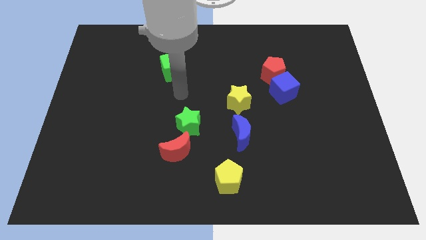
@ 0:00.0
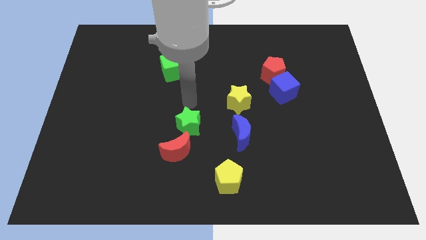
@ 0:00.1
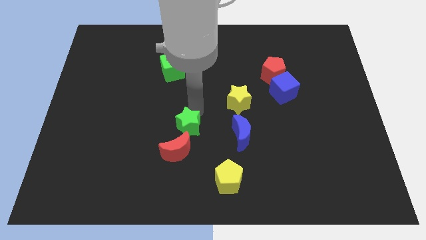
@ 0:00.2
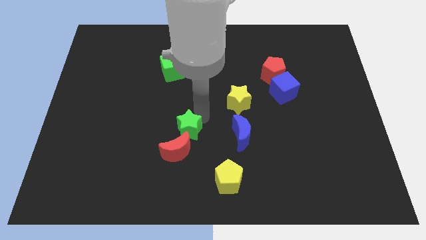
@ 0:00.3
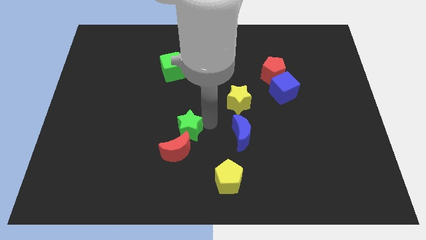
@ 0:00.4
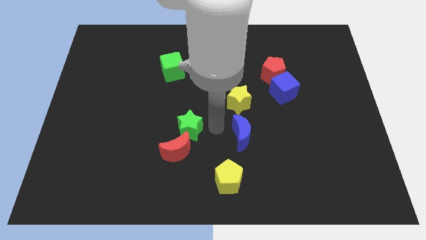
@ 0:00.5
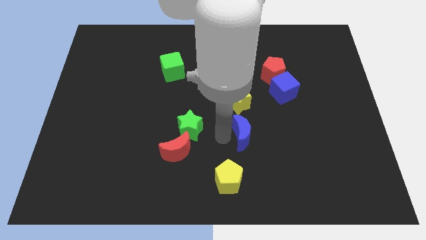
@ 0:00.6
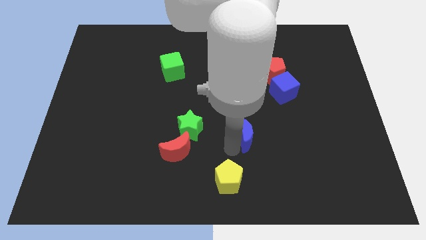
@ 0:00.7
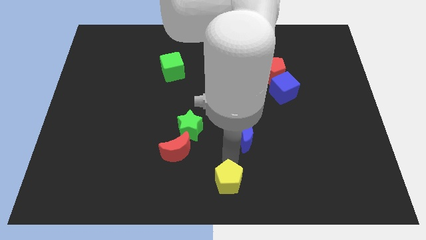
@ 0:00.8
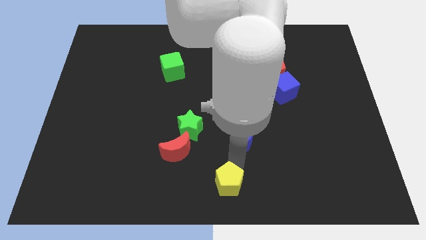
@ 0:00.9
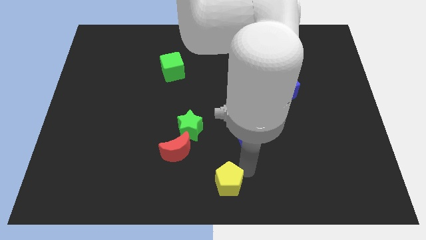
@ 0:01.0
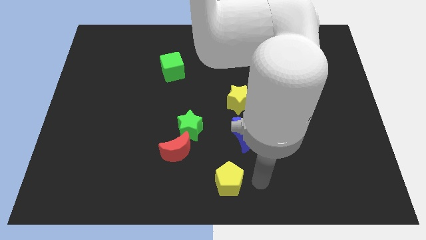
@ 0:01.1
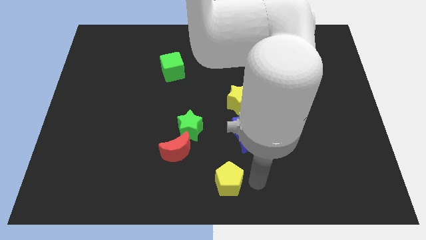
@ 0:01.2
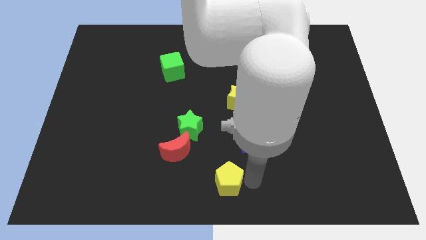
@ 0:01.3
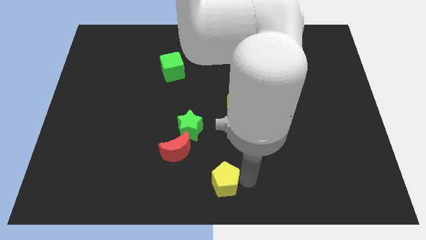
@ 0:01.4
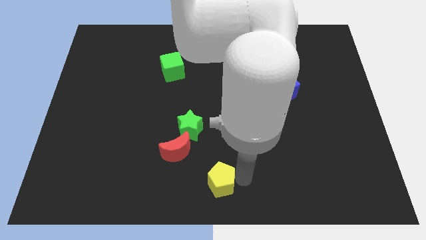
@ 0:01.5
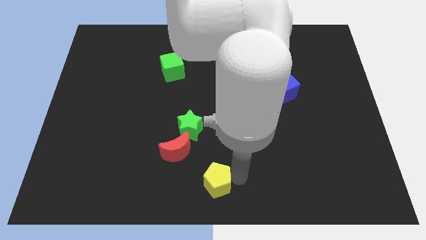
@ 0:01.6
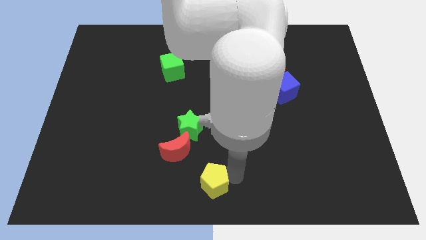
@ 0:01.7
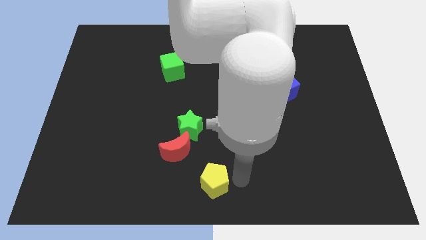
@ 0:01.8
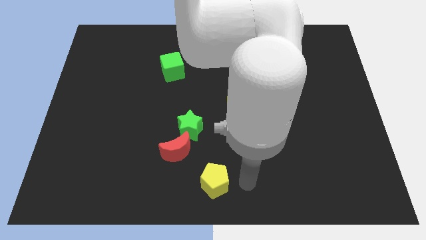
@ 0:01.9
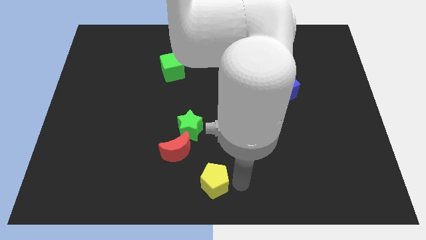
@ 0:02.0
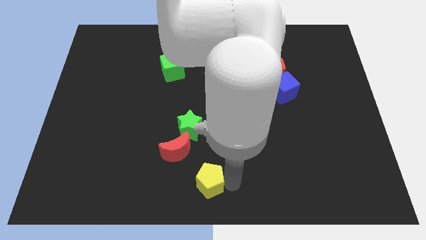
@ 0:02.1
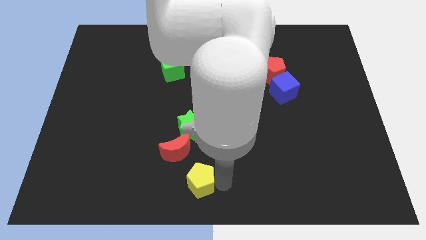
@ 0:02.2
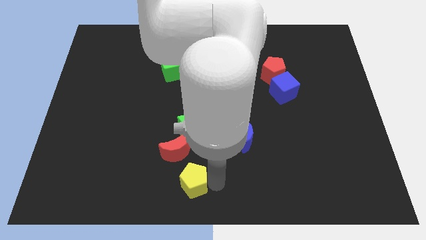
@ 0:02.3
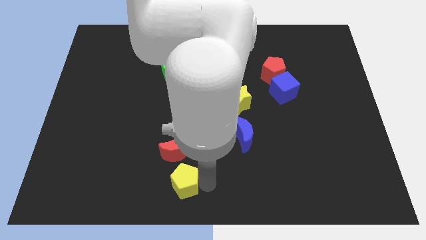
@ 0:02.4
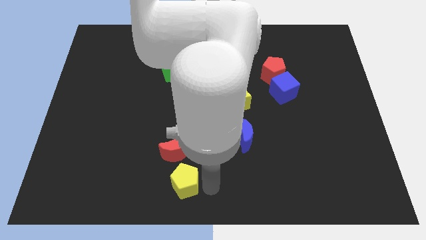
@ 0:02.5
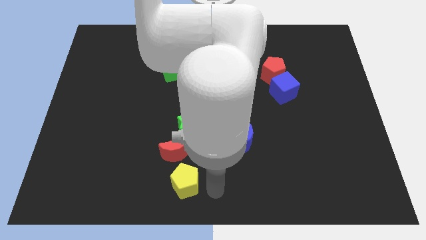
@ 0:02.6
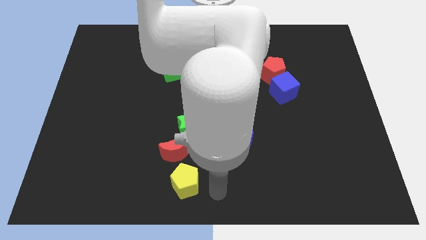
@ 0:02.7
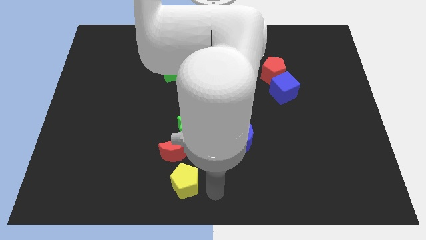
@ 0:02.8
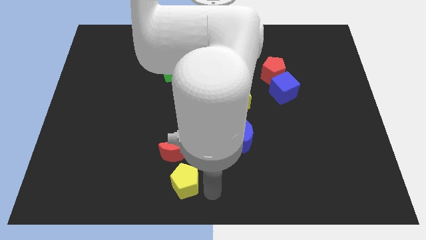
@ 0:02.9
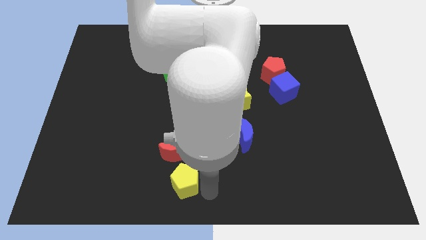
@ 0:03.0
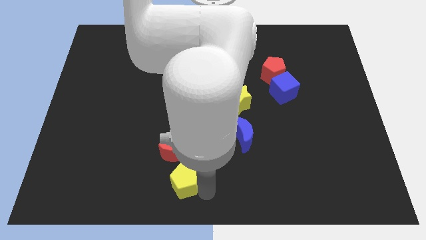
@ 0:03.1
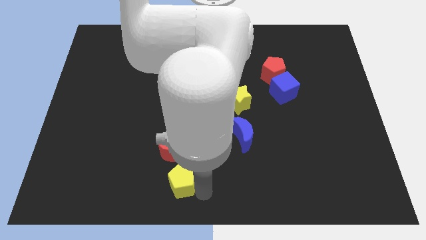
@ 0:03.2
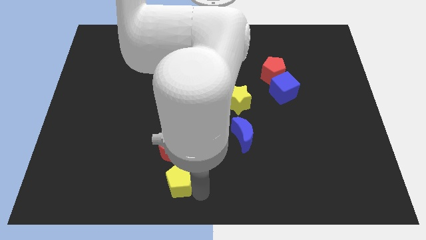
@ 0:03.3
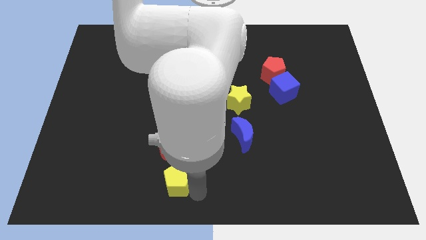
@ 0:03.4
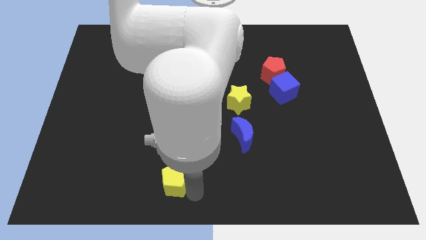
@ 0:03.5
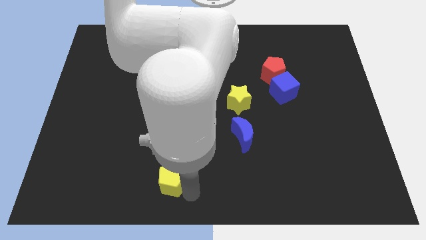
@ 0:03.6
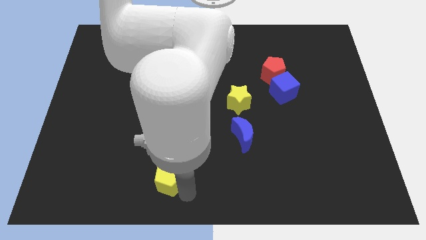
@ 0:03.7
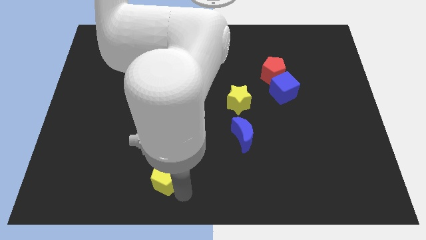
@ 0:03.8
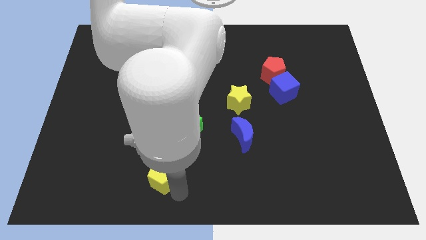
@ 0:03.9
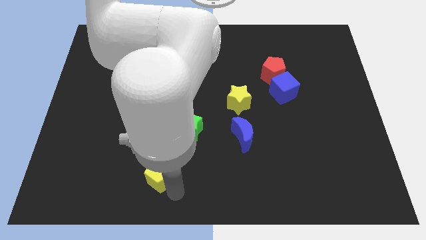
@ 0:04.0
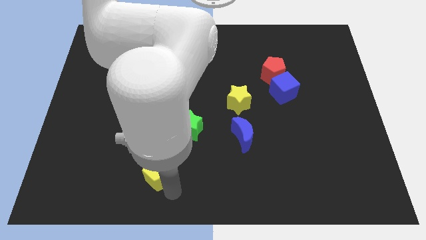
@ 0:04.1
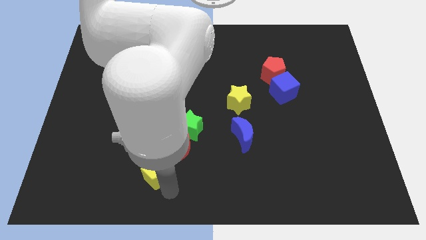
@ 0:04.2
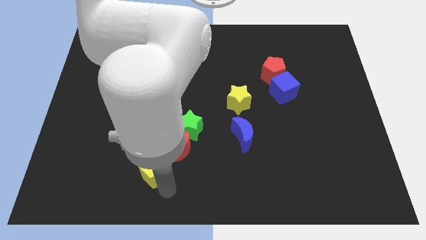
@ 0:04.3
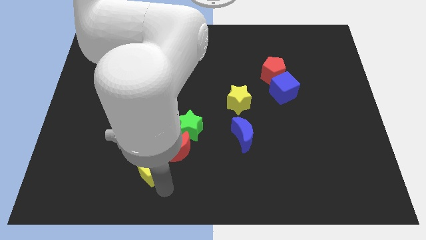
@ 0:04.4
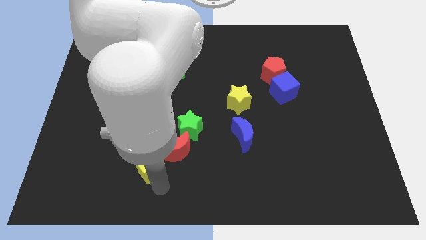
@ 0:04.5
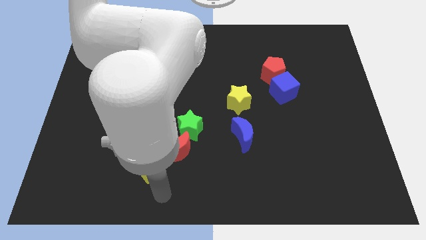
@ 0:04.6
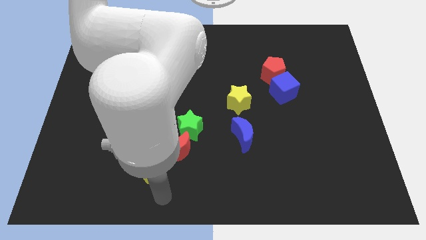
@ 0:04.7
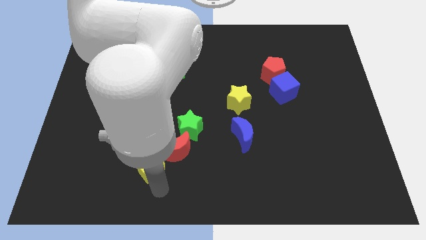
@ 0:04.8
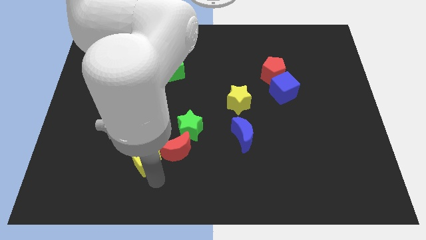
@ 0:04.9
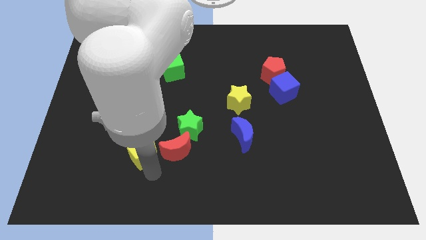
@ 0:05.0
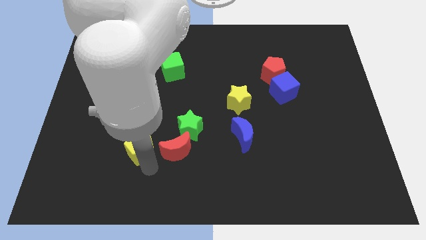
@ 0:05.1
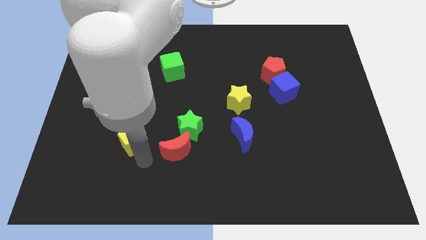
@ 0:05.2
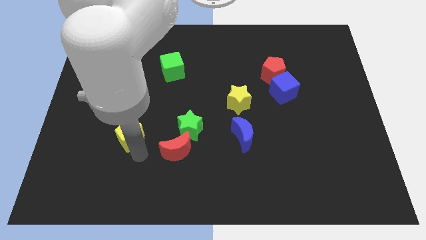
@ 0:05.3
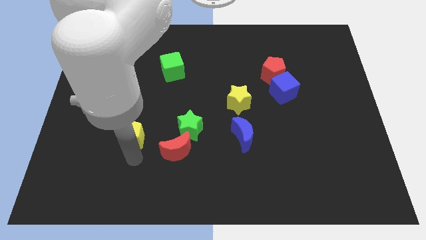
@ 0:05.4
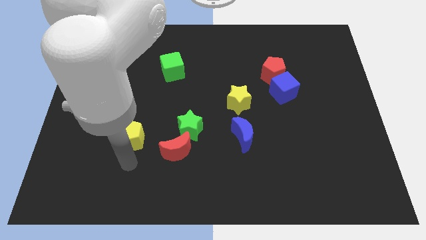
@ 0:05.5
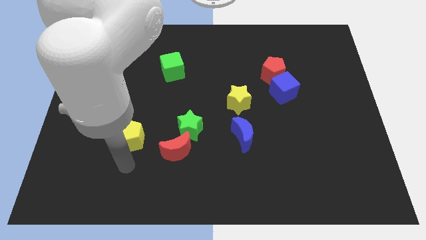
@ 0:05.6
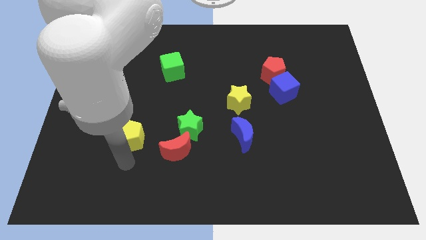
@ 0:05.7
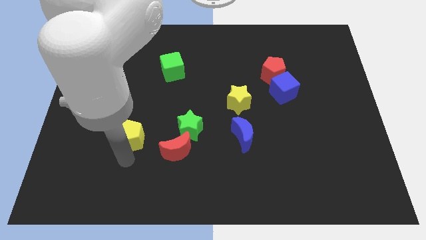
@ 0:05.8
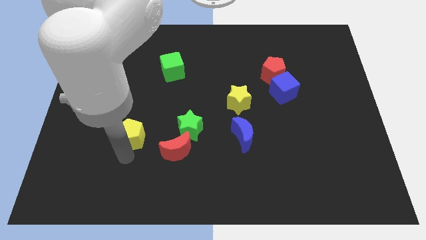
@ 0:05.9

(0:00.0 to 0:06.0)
move the yellow pentagon up and to the left diagonally

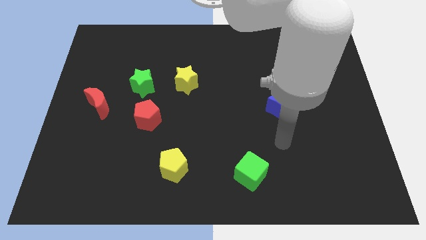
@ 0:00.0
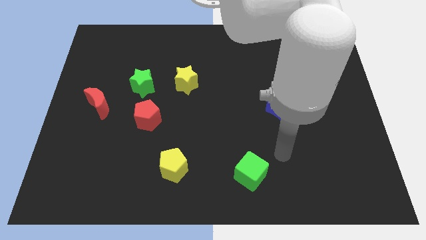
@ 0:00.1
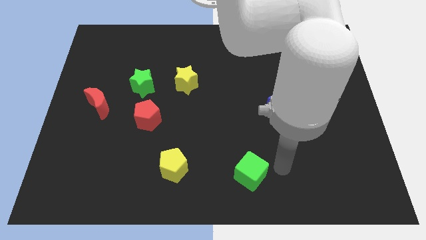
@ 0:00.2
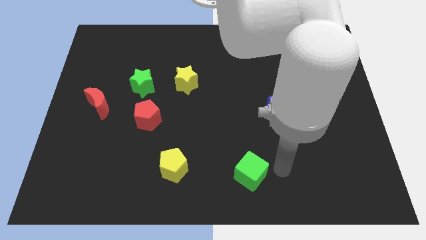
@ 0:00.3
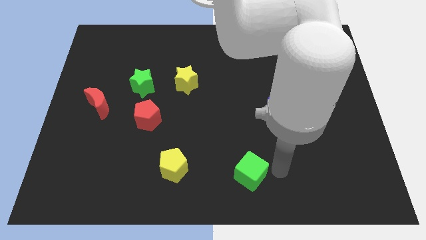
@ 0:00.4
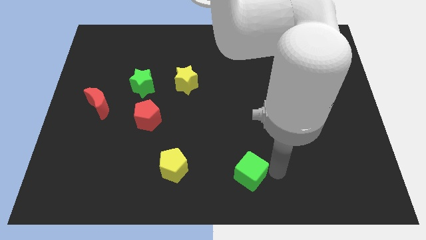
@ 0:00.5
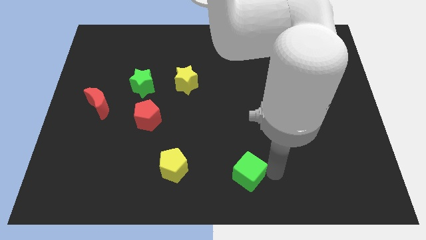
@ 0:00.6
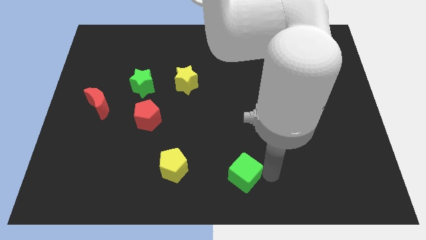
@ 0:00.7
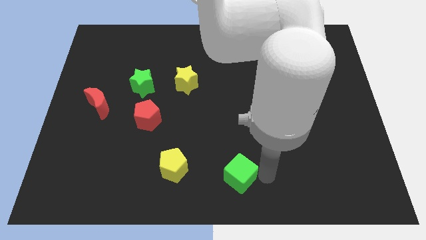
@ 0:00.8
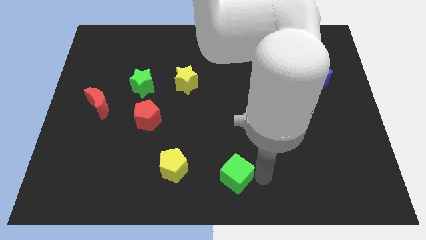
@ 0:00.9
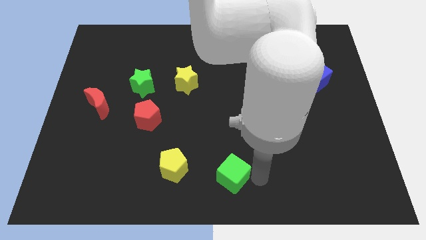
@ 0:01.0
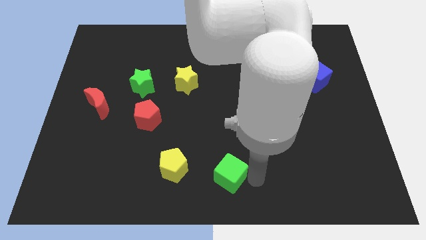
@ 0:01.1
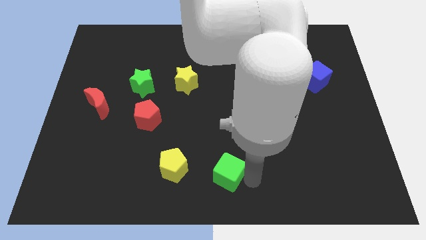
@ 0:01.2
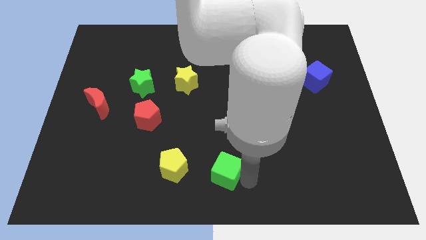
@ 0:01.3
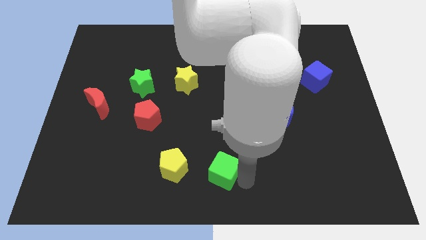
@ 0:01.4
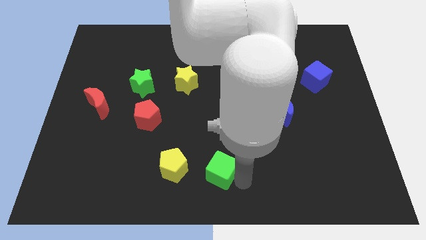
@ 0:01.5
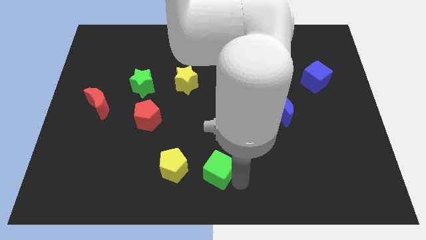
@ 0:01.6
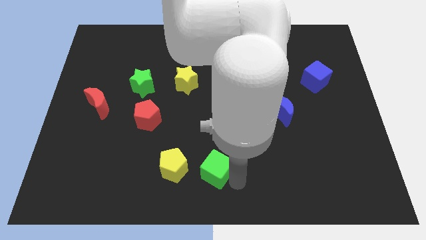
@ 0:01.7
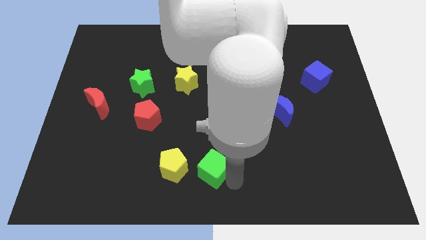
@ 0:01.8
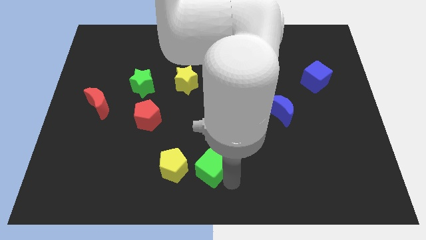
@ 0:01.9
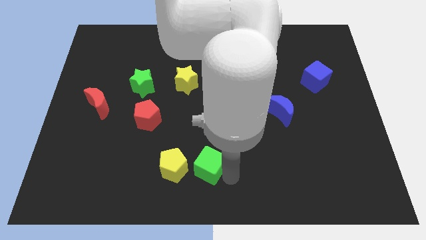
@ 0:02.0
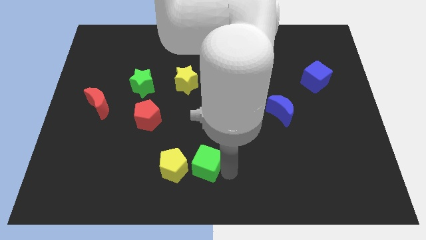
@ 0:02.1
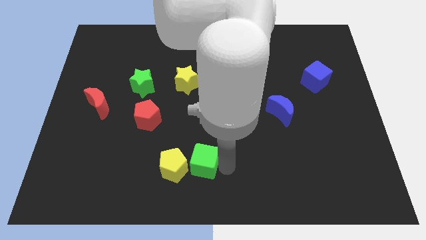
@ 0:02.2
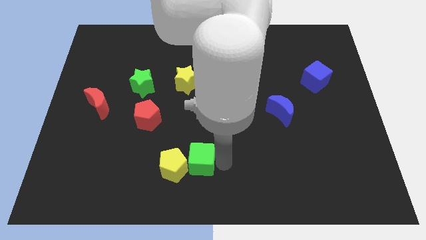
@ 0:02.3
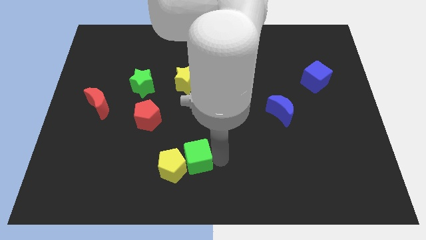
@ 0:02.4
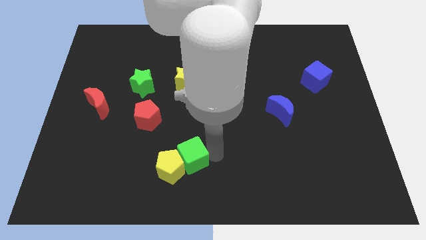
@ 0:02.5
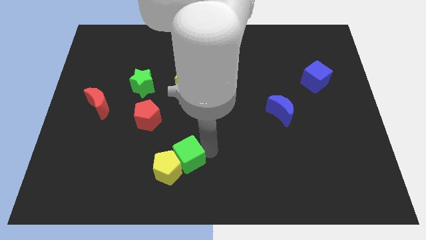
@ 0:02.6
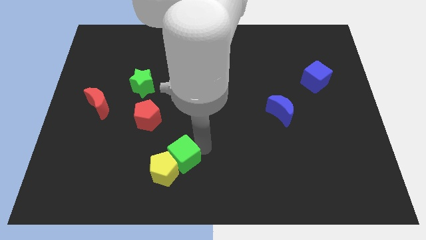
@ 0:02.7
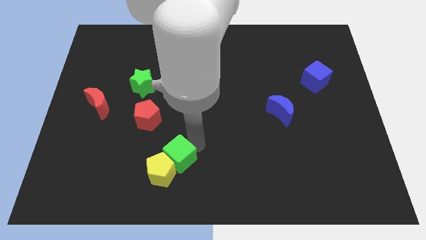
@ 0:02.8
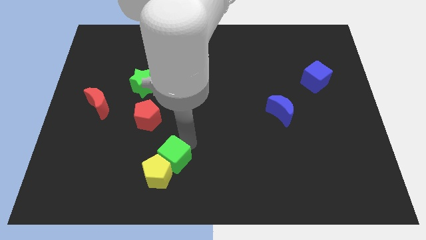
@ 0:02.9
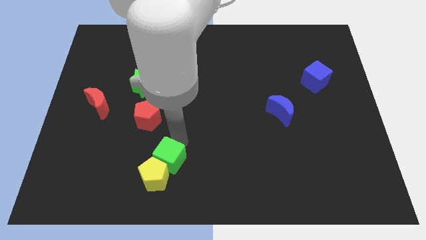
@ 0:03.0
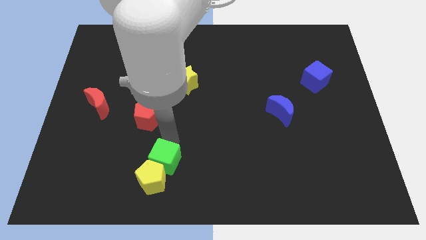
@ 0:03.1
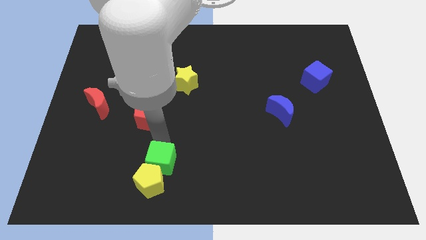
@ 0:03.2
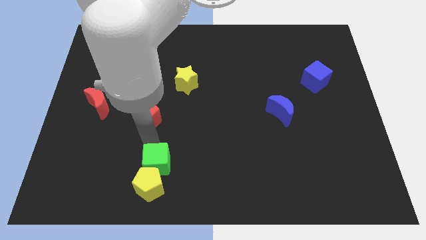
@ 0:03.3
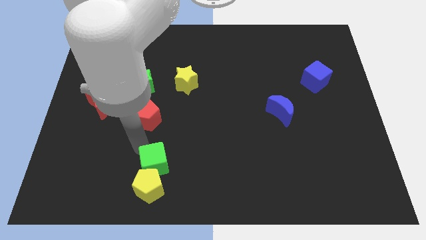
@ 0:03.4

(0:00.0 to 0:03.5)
slide the green cube to the left
